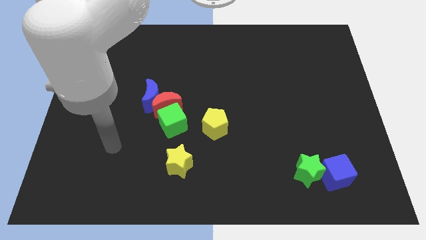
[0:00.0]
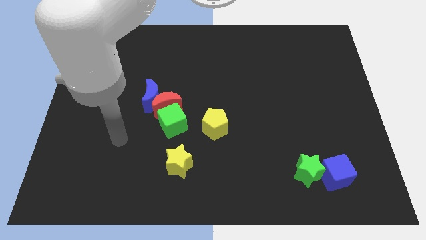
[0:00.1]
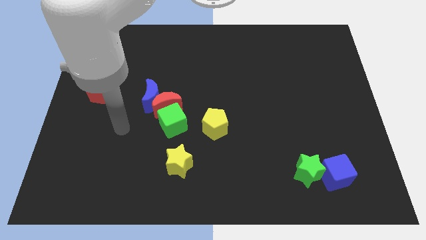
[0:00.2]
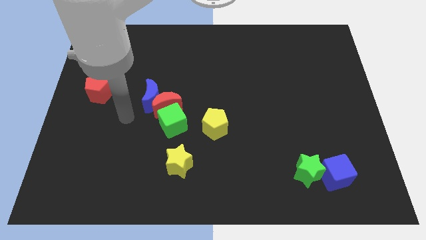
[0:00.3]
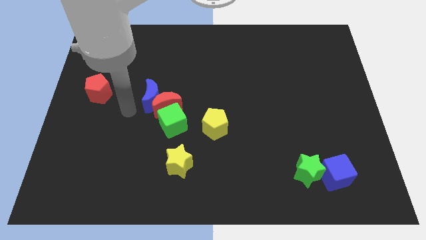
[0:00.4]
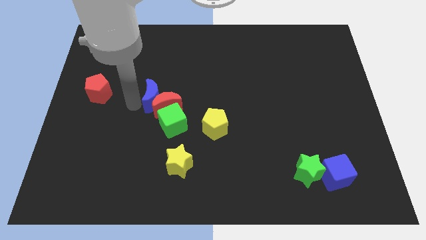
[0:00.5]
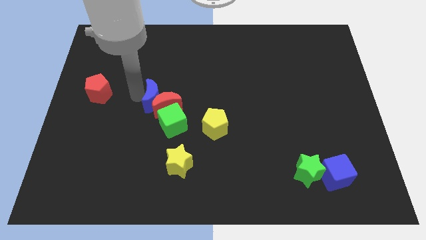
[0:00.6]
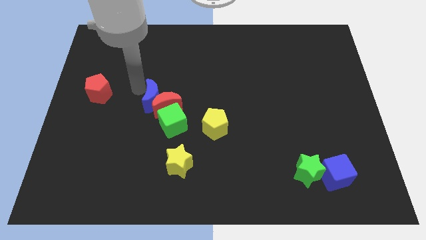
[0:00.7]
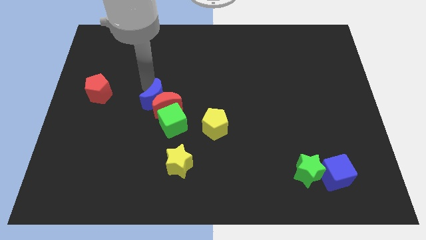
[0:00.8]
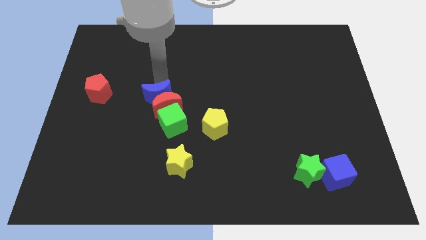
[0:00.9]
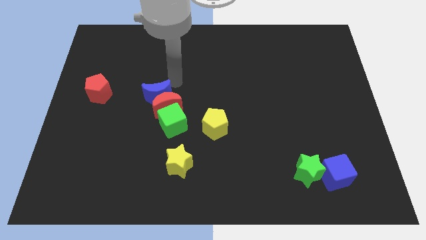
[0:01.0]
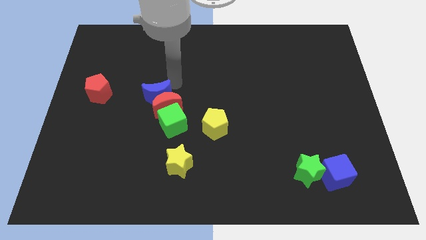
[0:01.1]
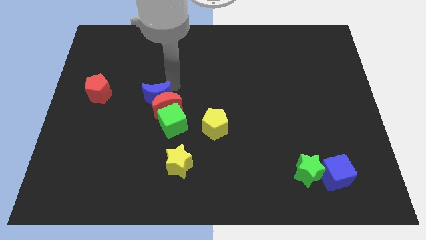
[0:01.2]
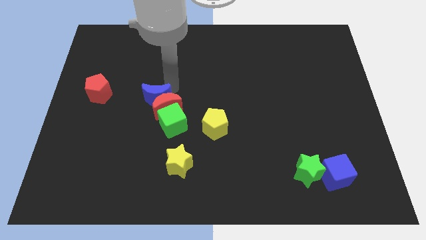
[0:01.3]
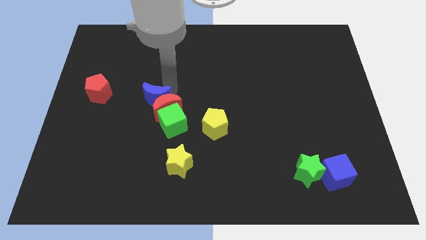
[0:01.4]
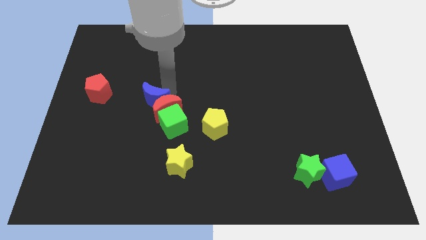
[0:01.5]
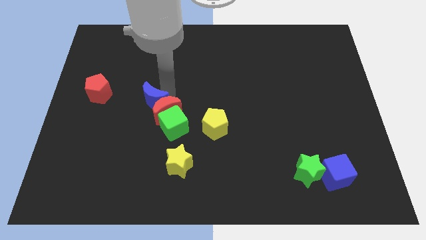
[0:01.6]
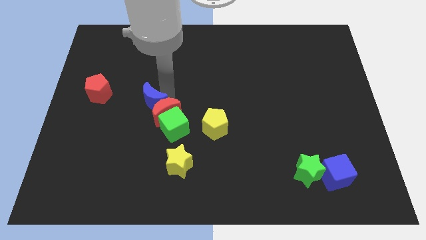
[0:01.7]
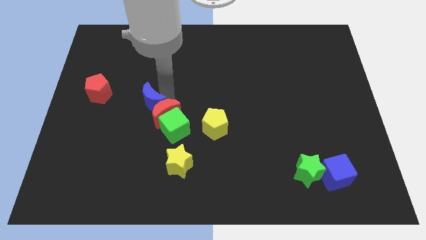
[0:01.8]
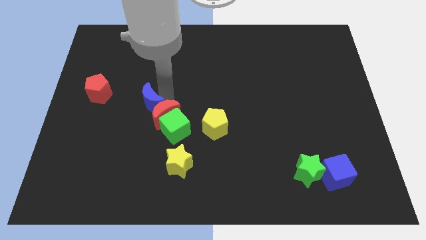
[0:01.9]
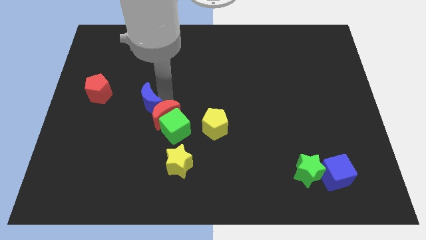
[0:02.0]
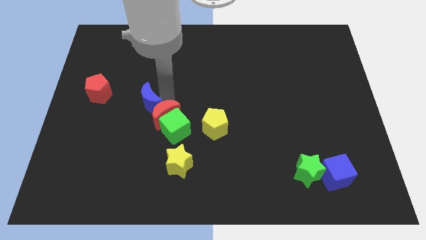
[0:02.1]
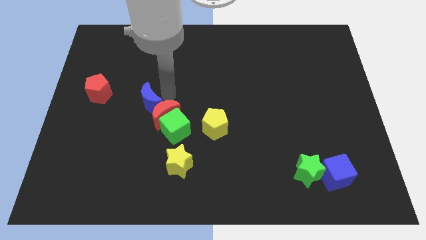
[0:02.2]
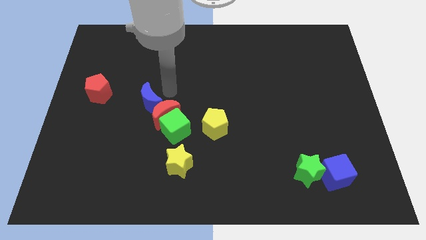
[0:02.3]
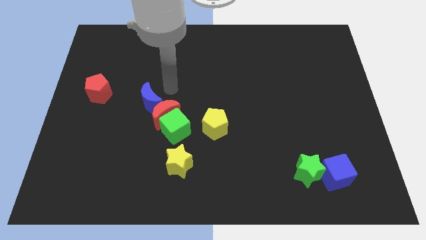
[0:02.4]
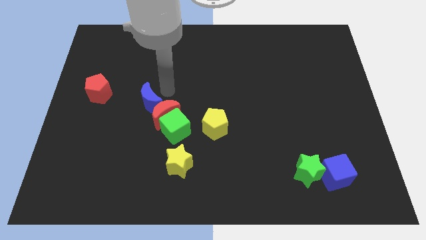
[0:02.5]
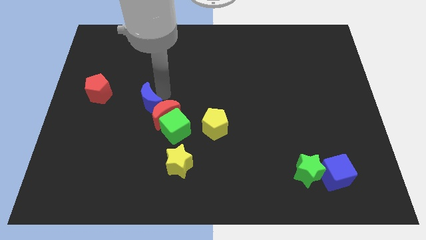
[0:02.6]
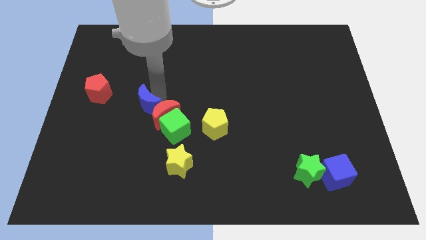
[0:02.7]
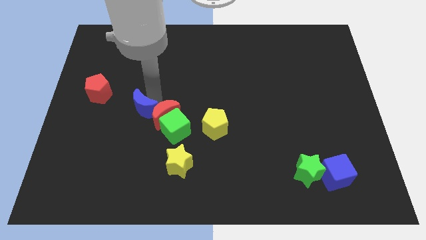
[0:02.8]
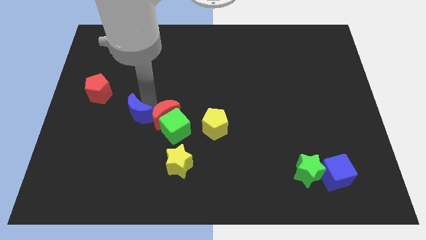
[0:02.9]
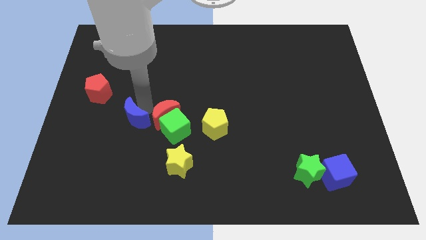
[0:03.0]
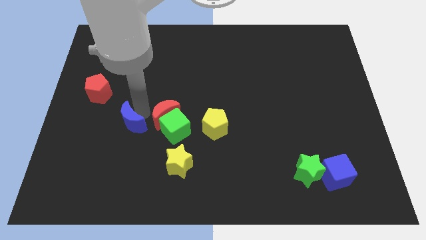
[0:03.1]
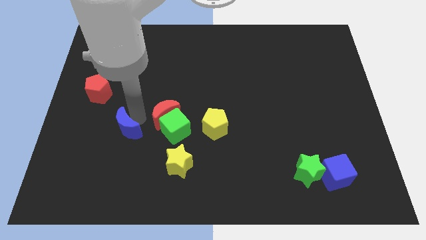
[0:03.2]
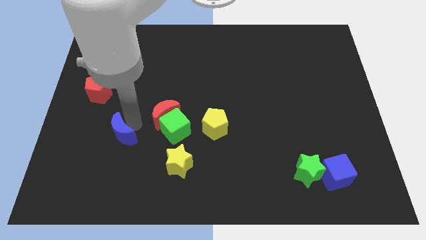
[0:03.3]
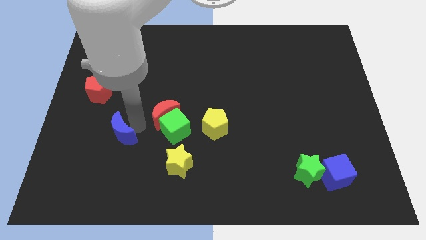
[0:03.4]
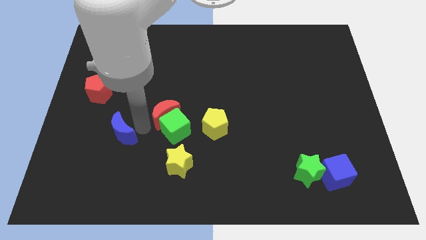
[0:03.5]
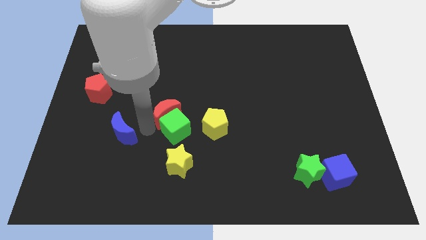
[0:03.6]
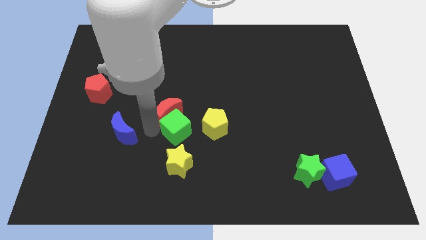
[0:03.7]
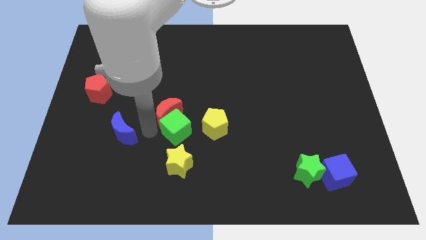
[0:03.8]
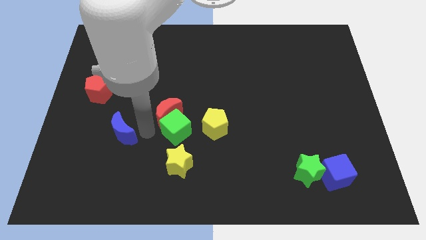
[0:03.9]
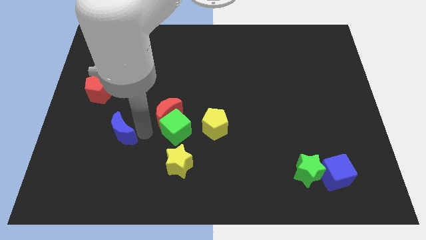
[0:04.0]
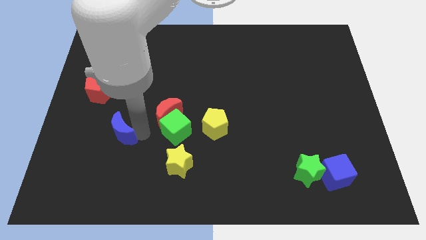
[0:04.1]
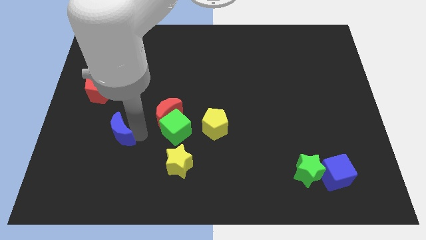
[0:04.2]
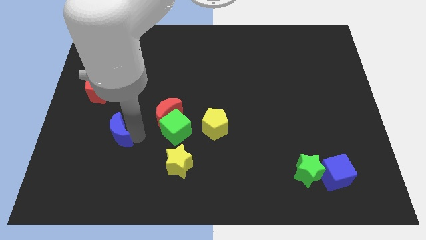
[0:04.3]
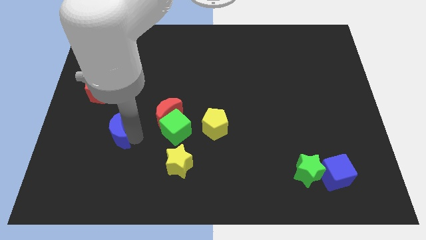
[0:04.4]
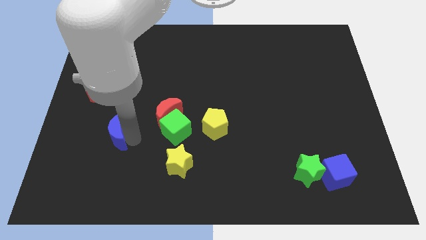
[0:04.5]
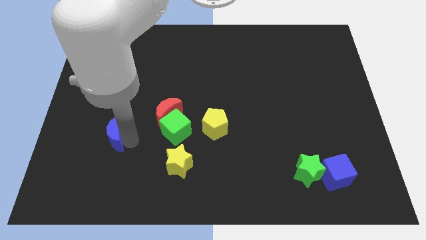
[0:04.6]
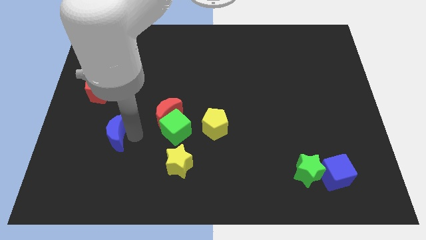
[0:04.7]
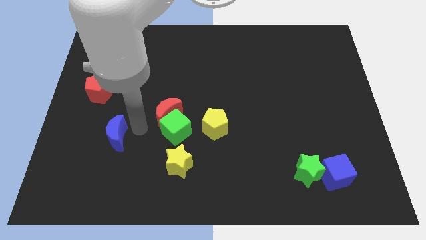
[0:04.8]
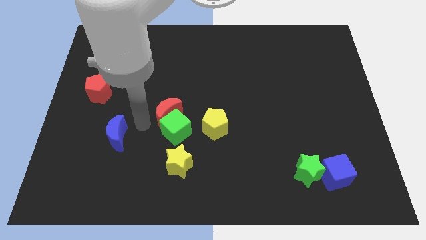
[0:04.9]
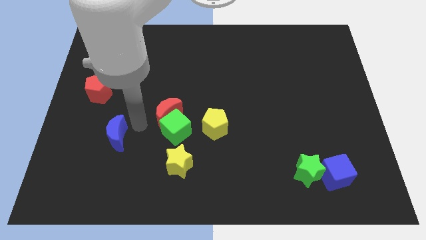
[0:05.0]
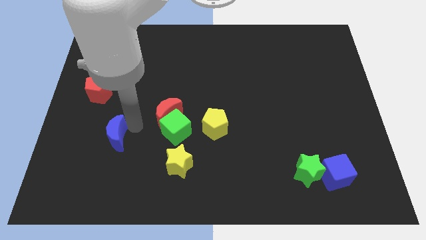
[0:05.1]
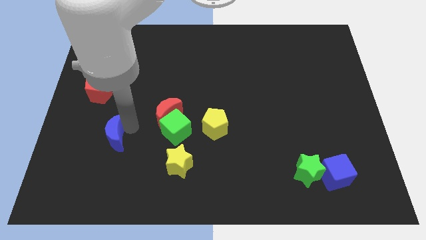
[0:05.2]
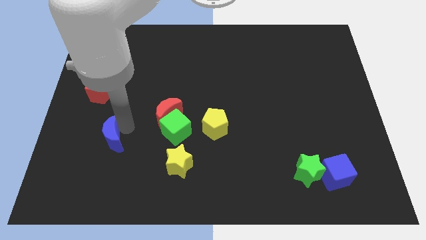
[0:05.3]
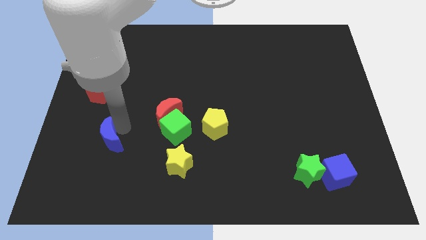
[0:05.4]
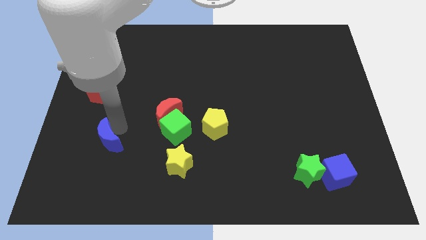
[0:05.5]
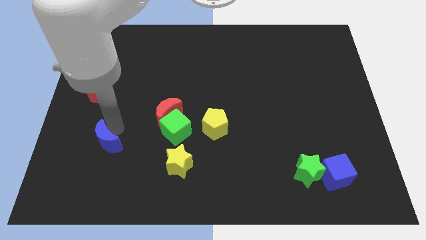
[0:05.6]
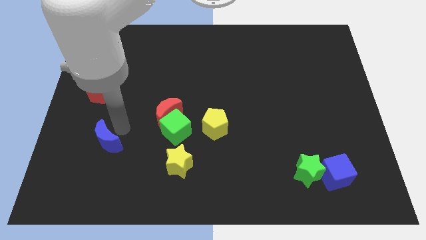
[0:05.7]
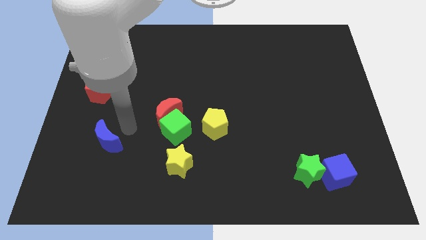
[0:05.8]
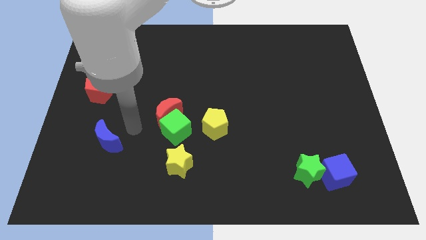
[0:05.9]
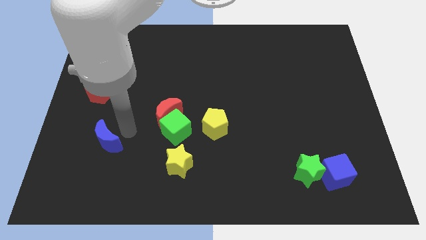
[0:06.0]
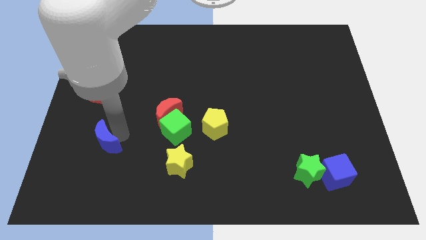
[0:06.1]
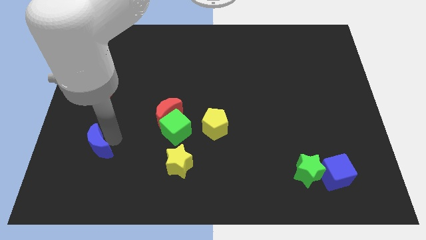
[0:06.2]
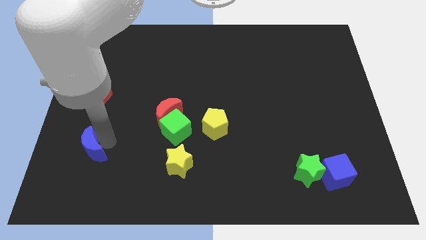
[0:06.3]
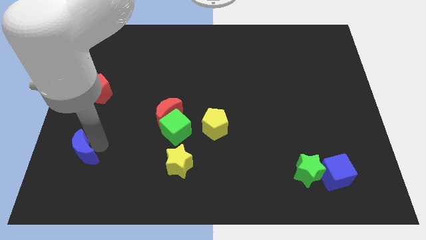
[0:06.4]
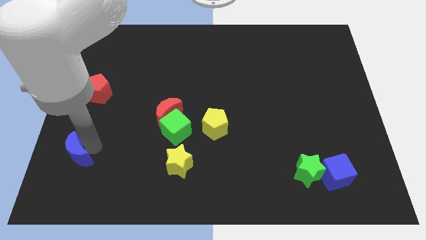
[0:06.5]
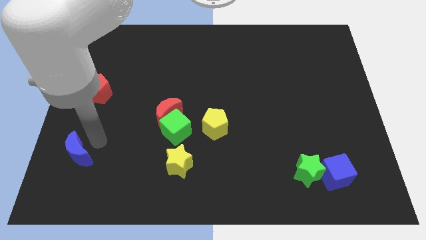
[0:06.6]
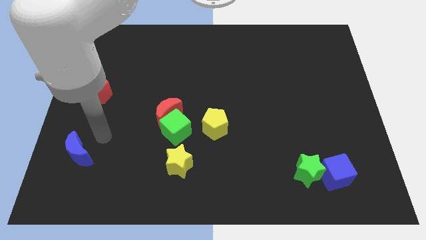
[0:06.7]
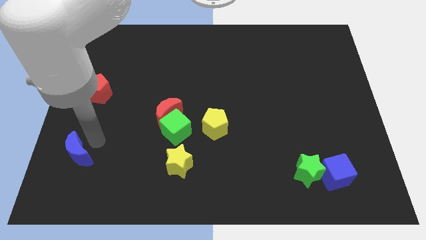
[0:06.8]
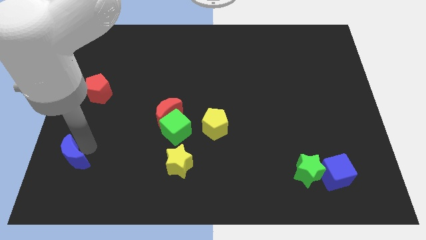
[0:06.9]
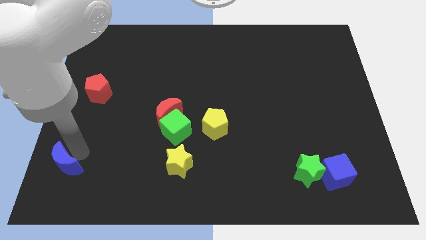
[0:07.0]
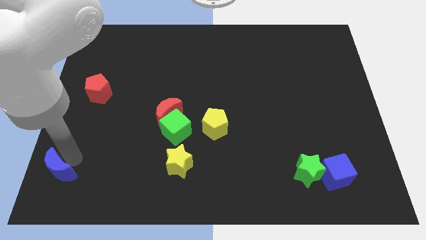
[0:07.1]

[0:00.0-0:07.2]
push the blue moon to the bottom left corner
